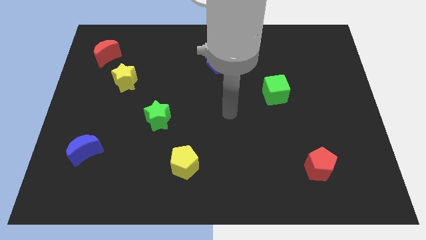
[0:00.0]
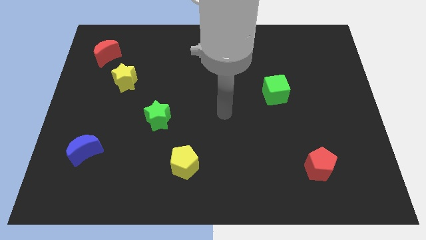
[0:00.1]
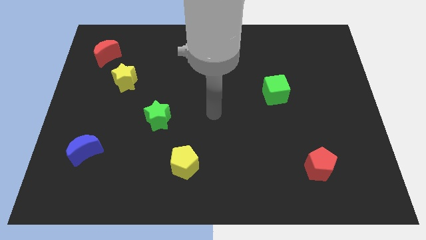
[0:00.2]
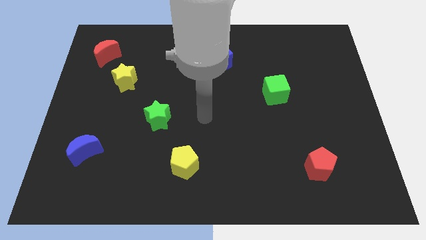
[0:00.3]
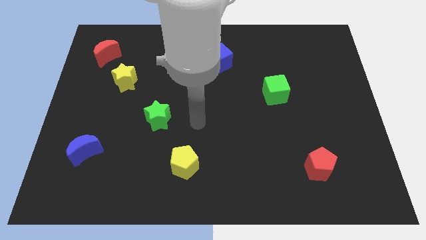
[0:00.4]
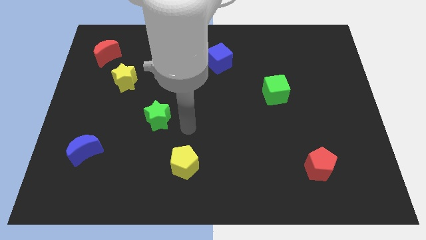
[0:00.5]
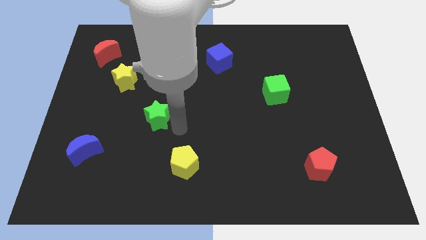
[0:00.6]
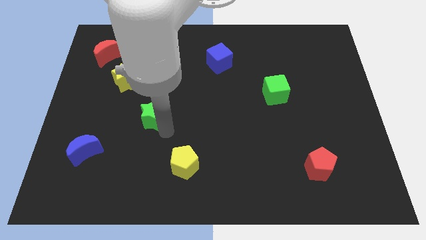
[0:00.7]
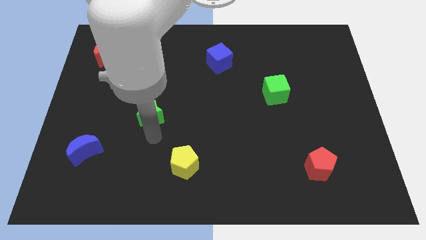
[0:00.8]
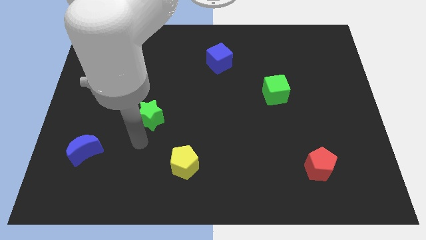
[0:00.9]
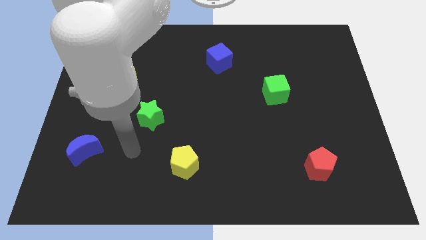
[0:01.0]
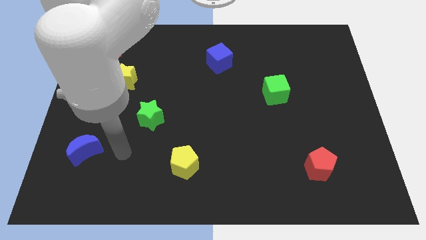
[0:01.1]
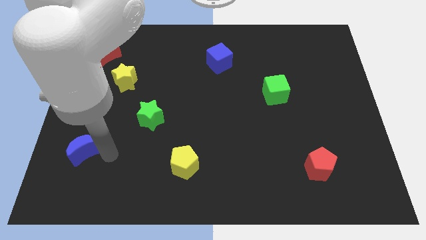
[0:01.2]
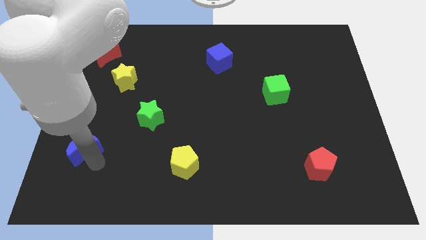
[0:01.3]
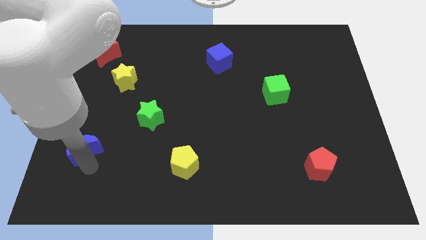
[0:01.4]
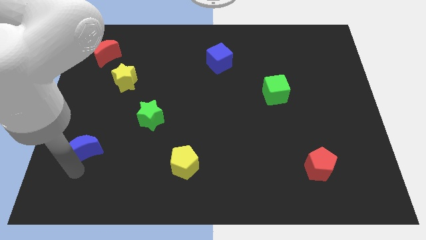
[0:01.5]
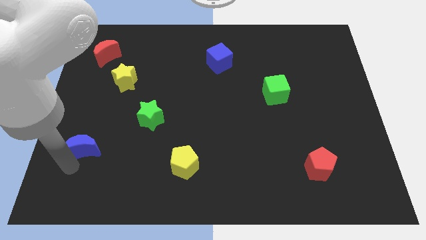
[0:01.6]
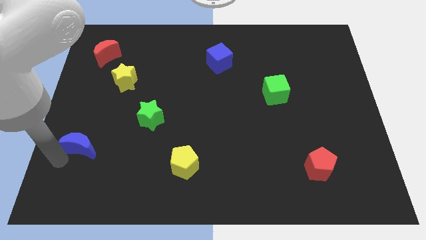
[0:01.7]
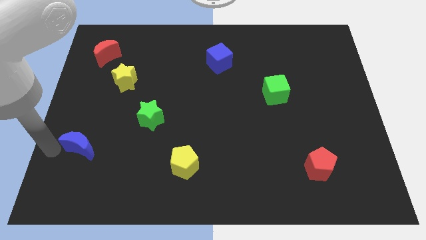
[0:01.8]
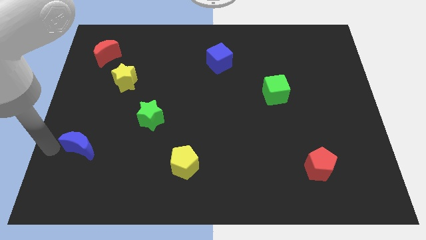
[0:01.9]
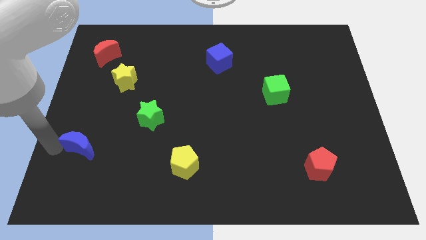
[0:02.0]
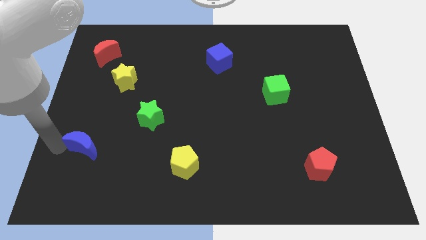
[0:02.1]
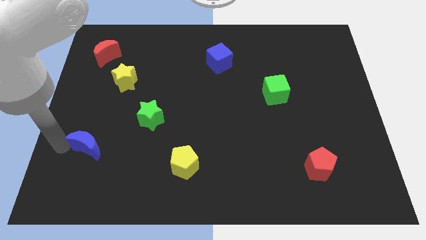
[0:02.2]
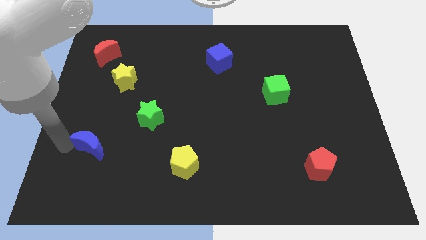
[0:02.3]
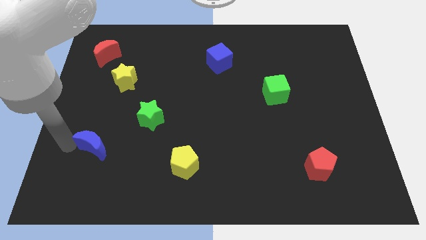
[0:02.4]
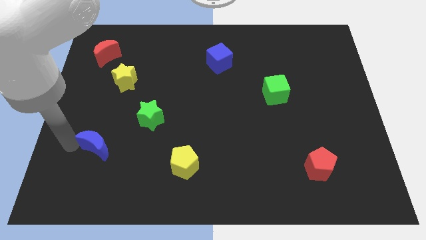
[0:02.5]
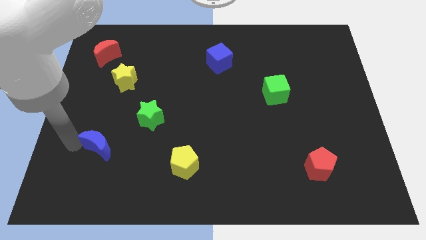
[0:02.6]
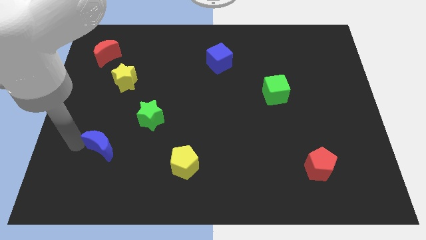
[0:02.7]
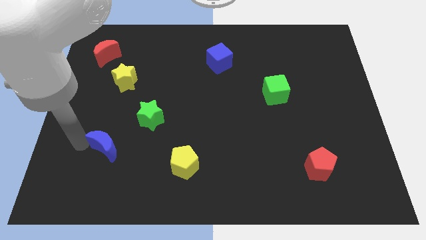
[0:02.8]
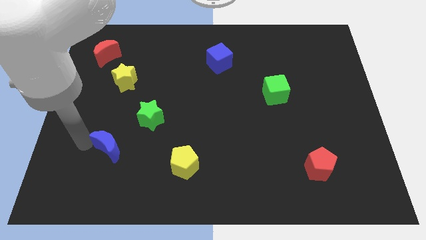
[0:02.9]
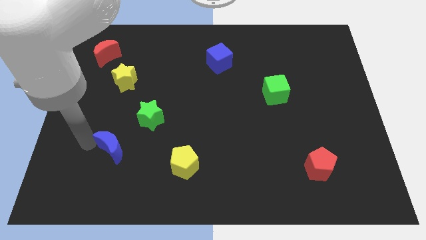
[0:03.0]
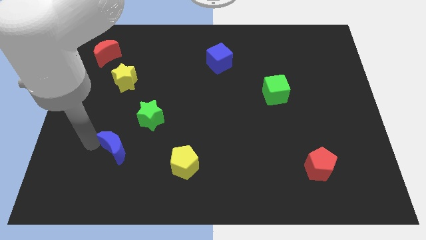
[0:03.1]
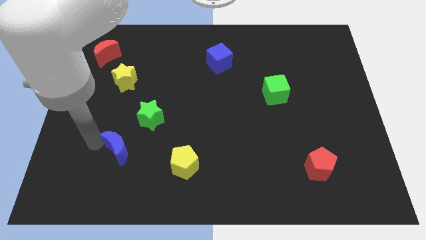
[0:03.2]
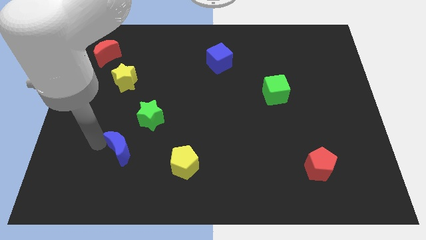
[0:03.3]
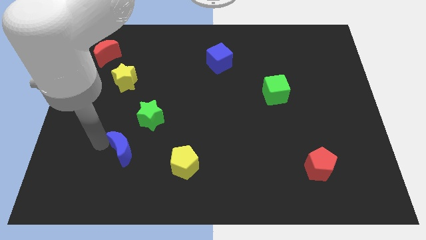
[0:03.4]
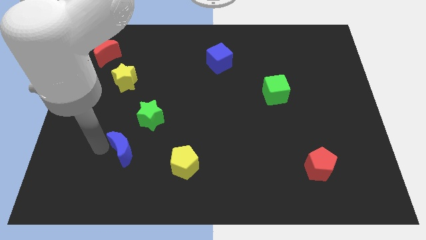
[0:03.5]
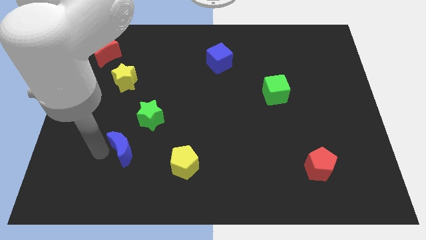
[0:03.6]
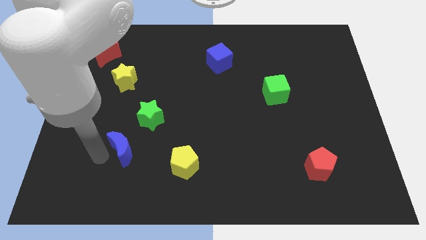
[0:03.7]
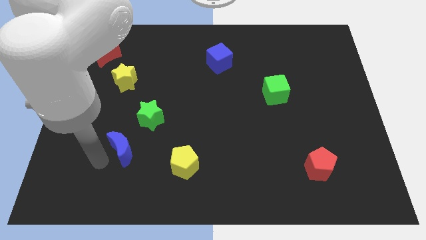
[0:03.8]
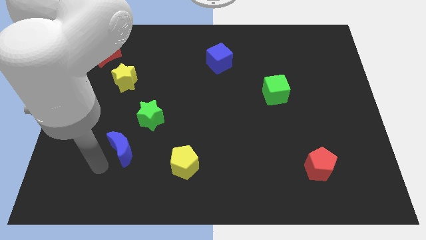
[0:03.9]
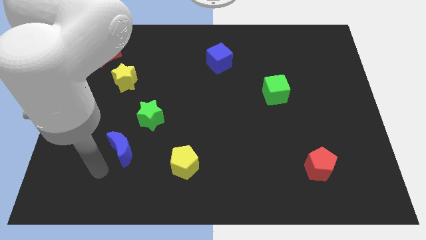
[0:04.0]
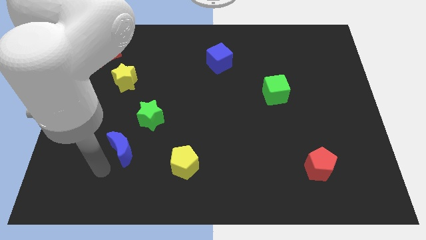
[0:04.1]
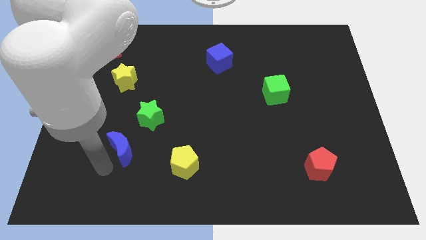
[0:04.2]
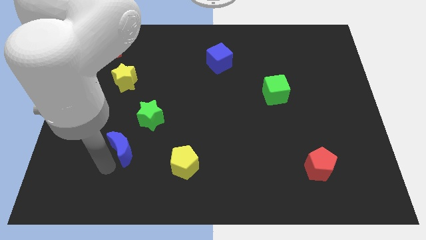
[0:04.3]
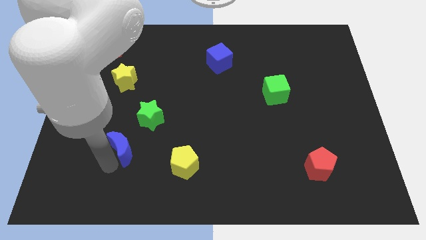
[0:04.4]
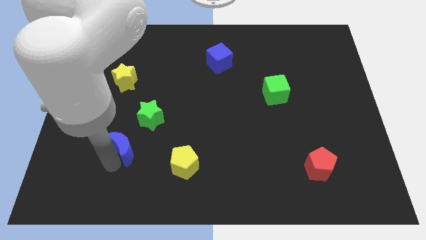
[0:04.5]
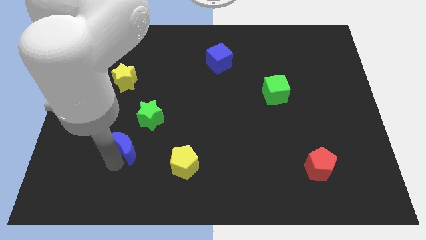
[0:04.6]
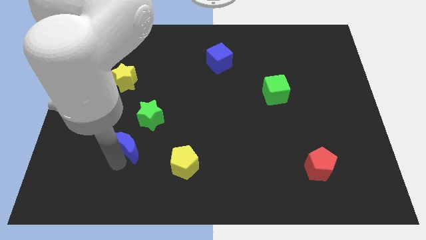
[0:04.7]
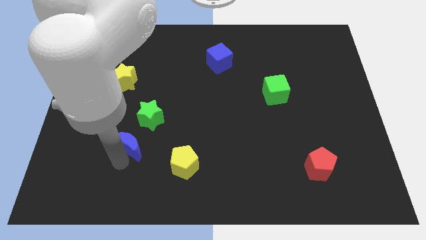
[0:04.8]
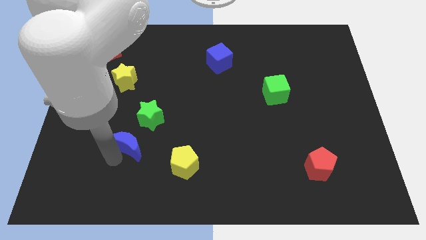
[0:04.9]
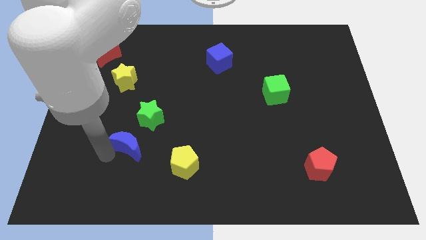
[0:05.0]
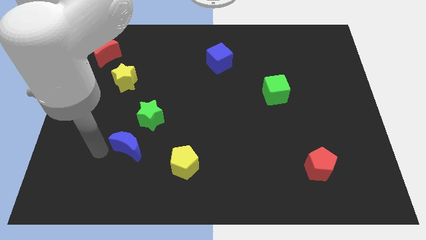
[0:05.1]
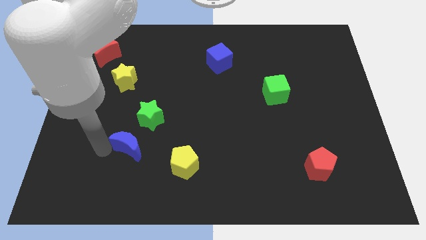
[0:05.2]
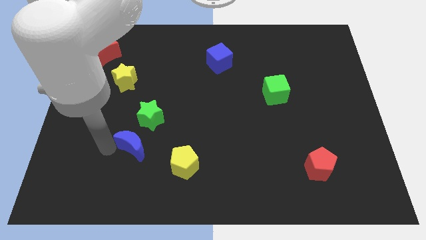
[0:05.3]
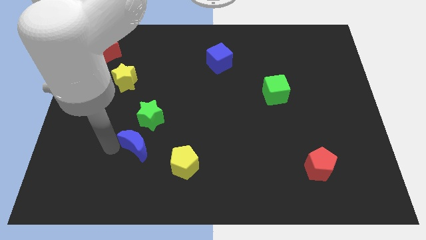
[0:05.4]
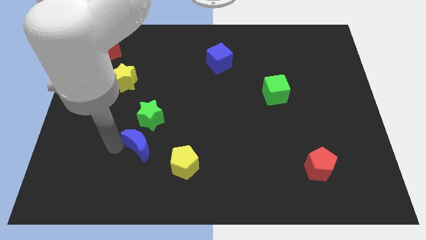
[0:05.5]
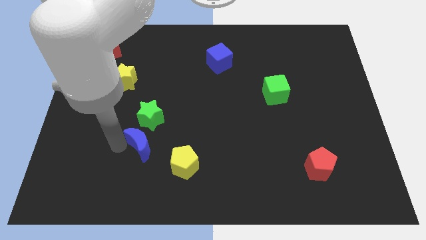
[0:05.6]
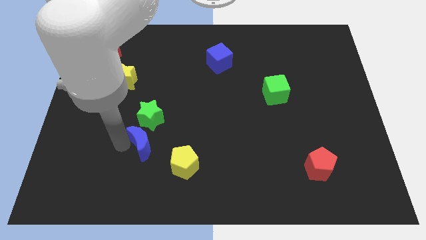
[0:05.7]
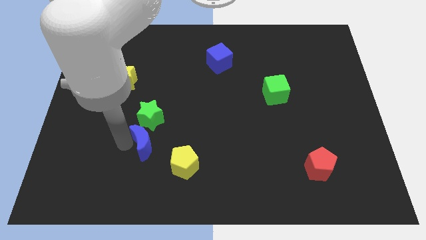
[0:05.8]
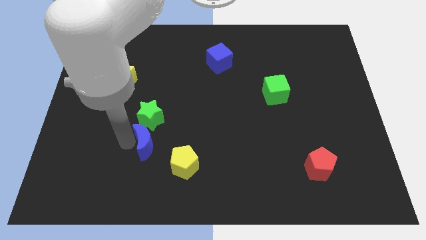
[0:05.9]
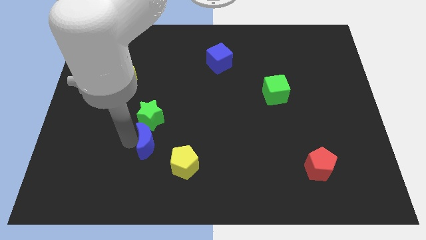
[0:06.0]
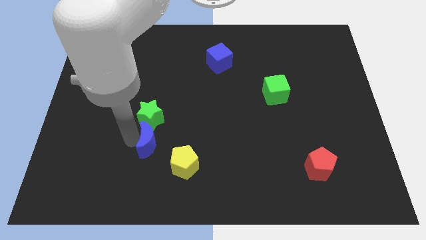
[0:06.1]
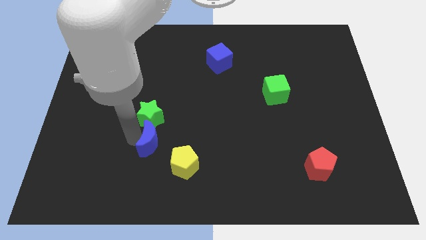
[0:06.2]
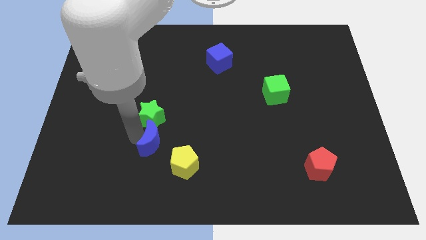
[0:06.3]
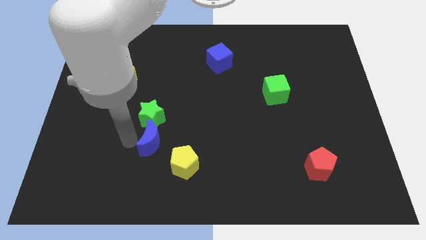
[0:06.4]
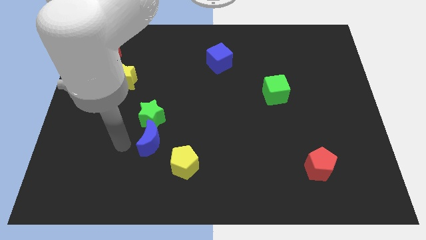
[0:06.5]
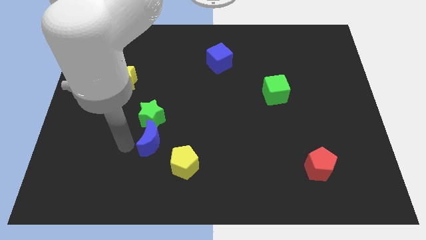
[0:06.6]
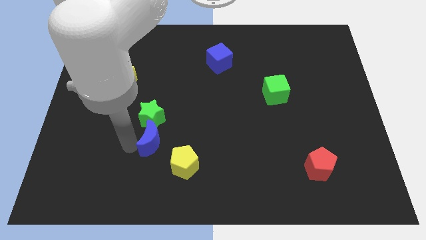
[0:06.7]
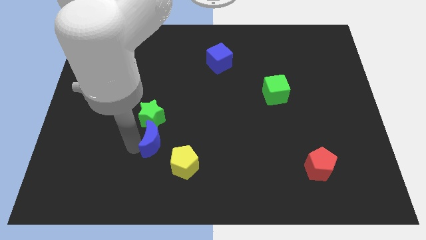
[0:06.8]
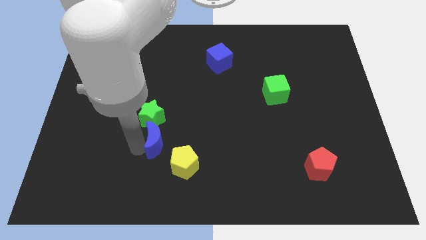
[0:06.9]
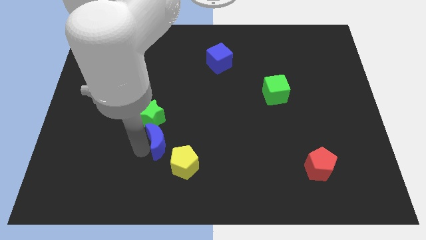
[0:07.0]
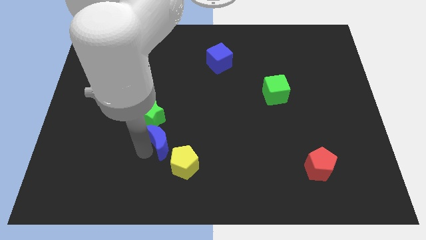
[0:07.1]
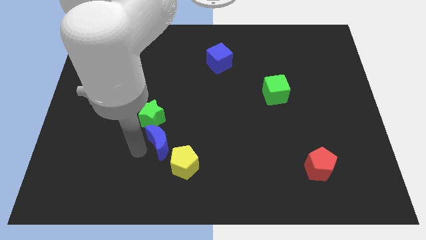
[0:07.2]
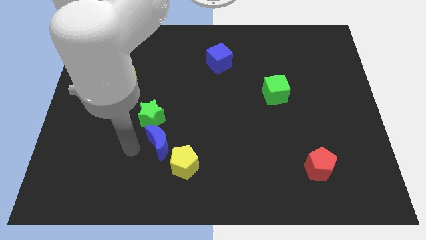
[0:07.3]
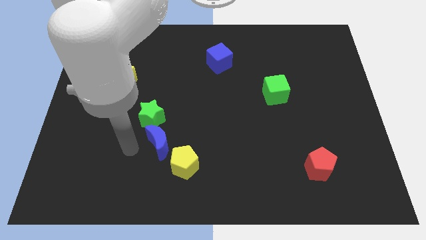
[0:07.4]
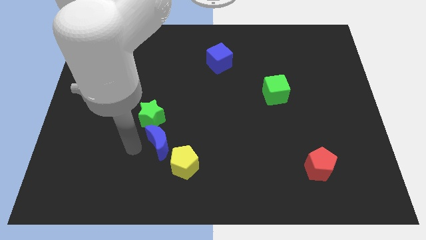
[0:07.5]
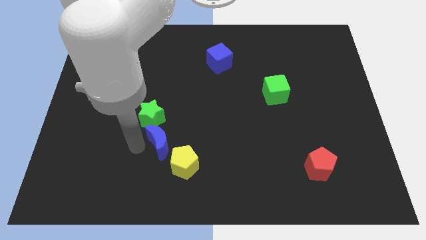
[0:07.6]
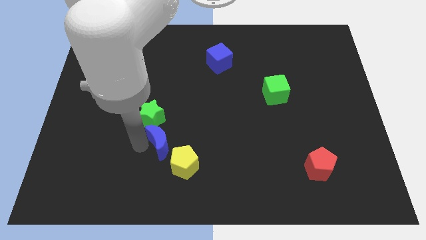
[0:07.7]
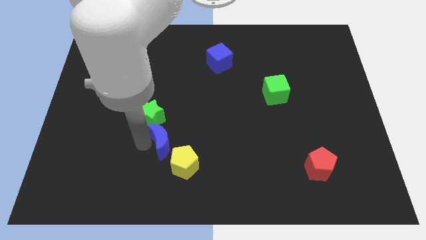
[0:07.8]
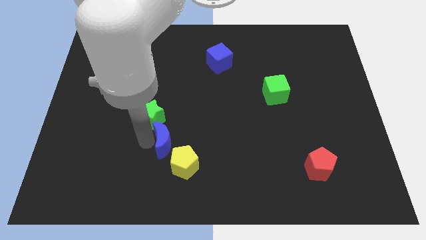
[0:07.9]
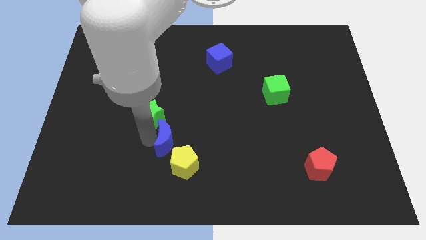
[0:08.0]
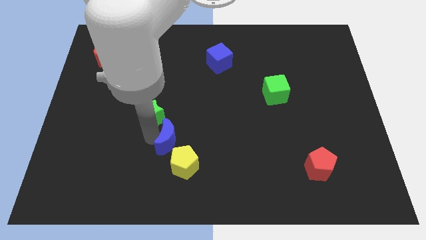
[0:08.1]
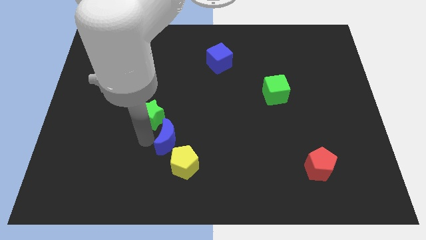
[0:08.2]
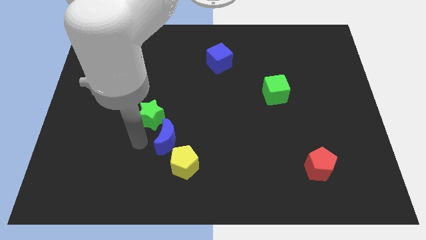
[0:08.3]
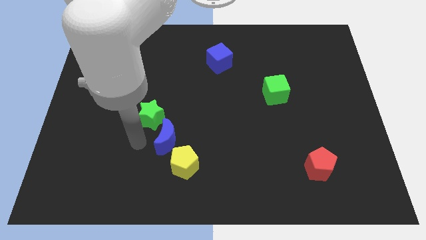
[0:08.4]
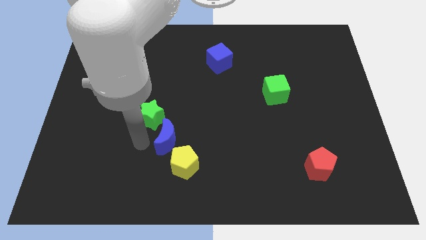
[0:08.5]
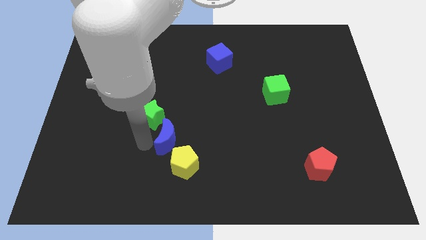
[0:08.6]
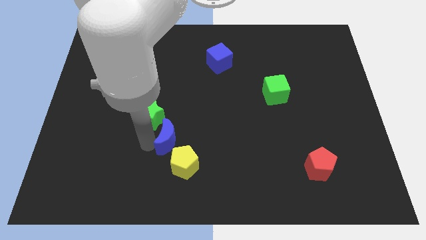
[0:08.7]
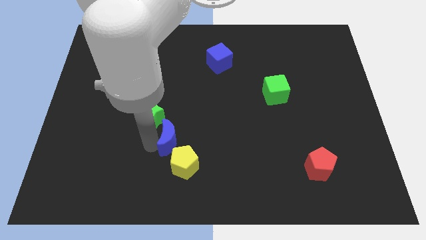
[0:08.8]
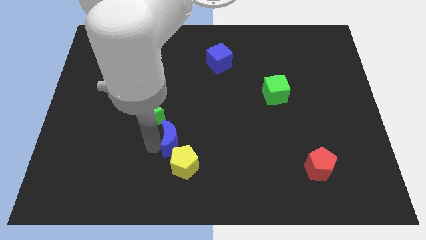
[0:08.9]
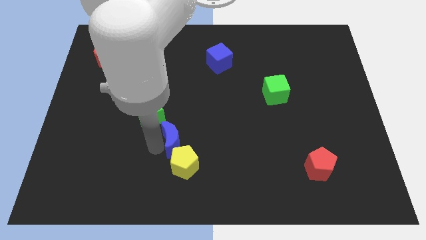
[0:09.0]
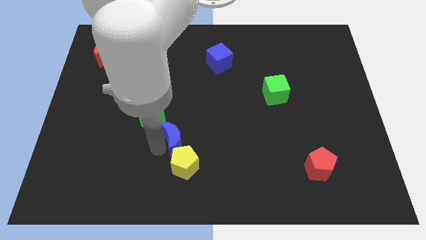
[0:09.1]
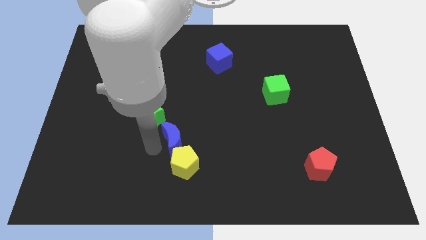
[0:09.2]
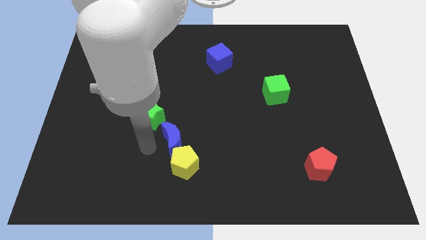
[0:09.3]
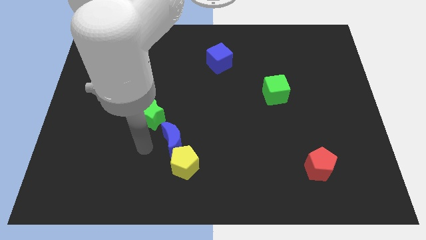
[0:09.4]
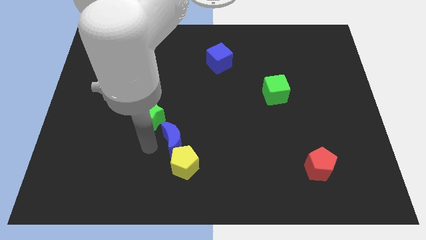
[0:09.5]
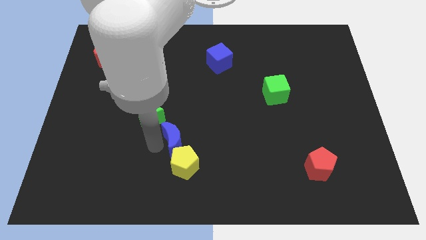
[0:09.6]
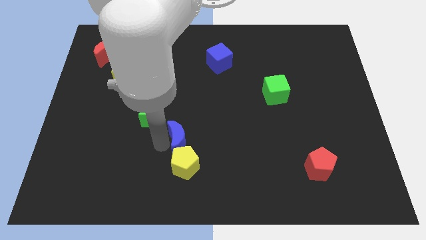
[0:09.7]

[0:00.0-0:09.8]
move the blue moon to the right
